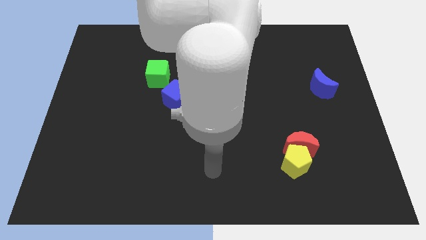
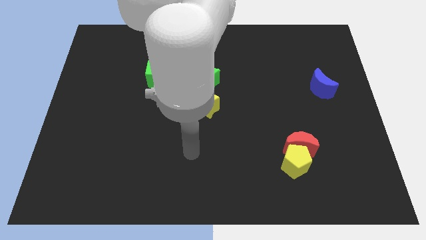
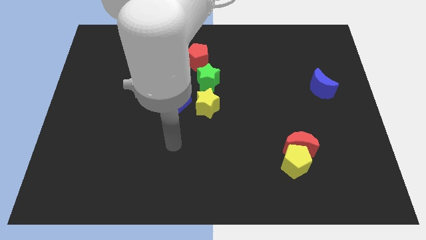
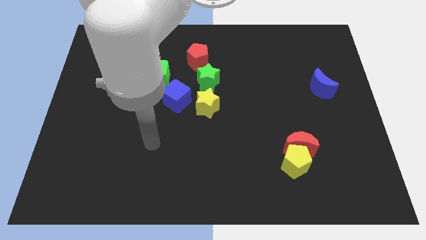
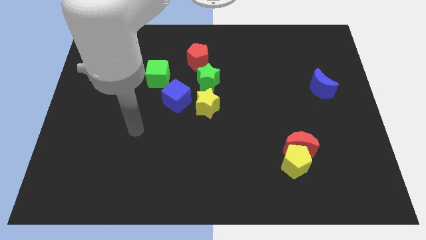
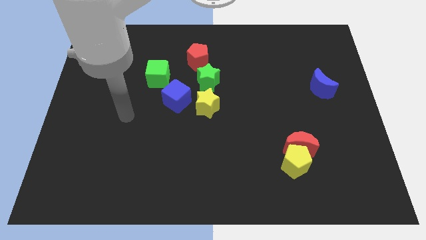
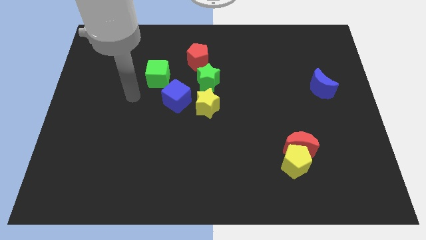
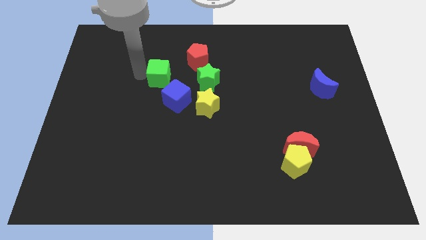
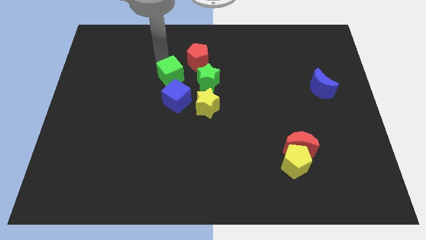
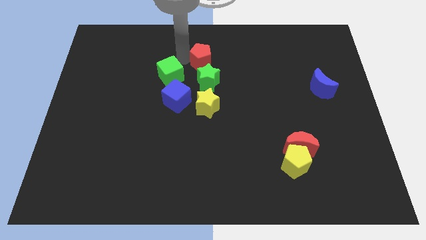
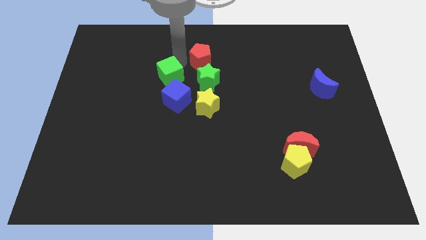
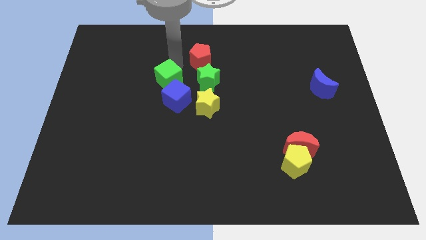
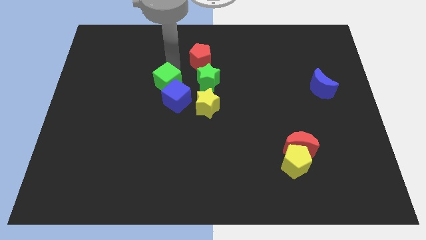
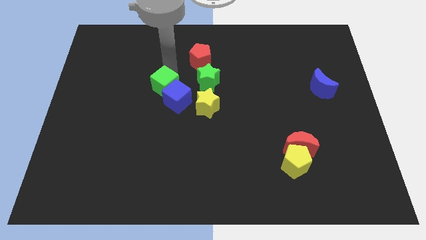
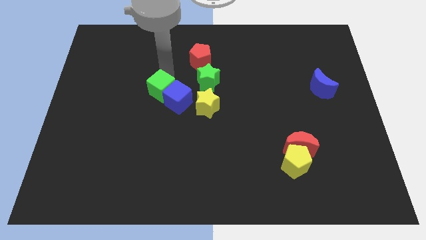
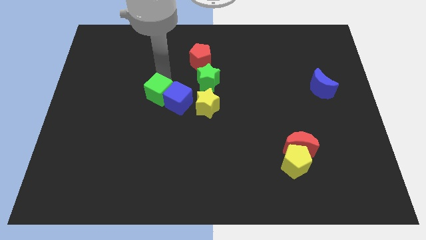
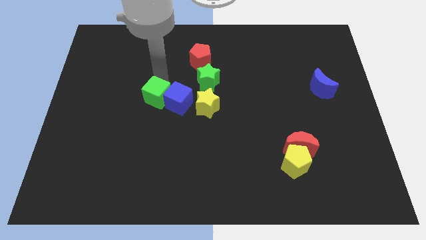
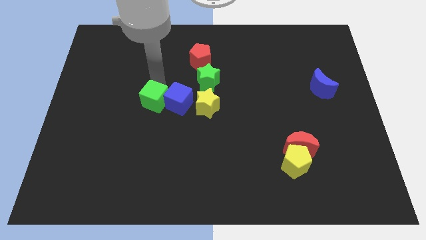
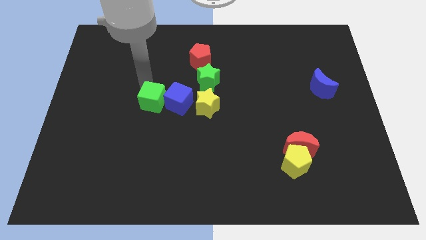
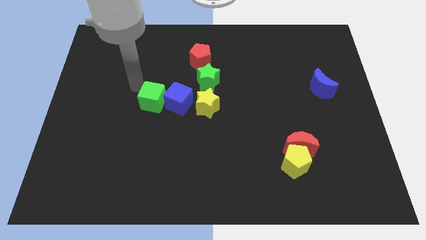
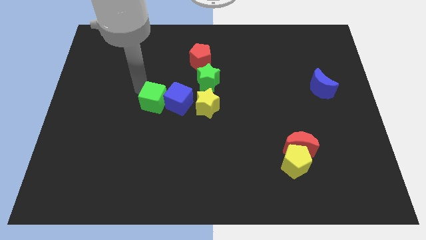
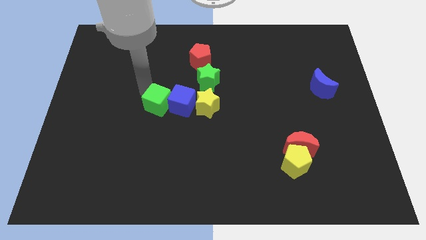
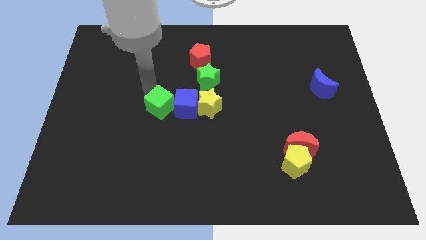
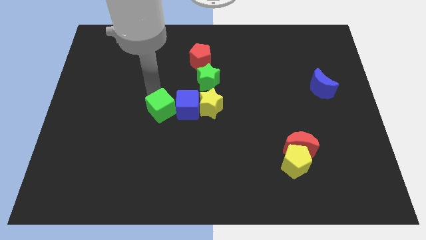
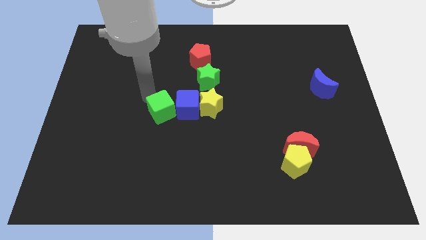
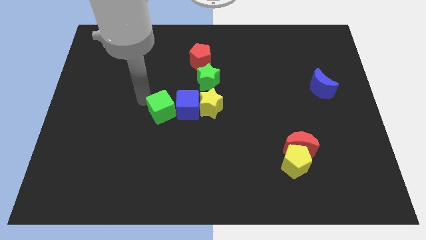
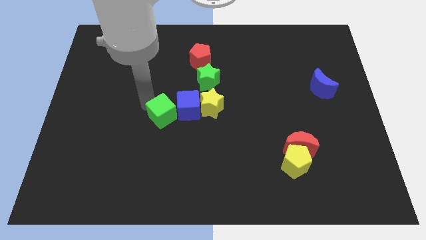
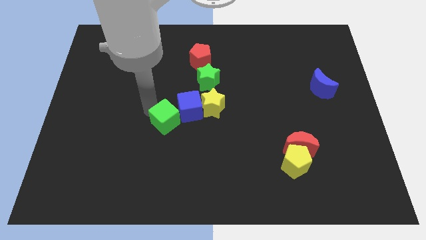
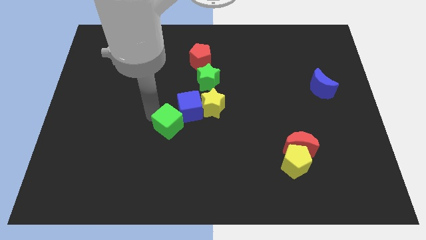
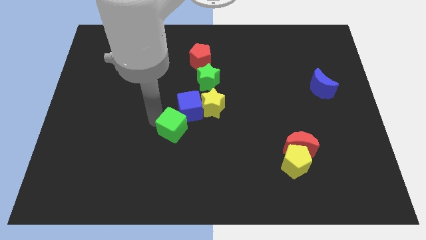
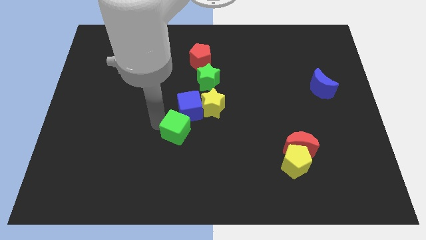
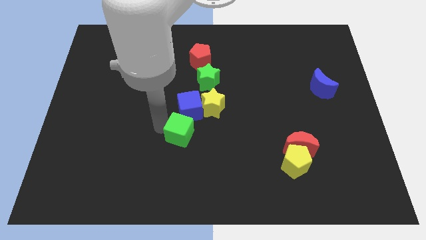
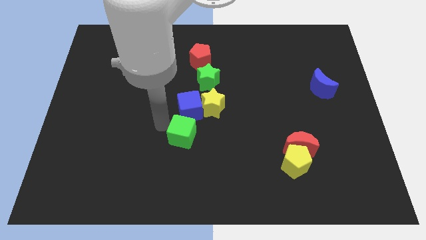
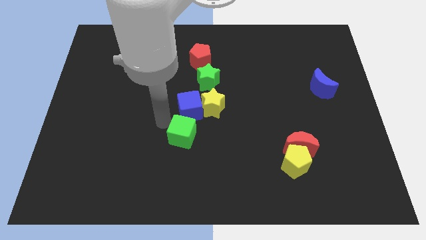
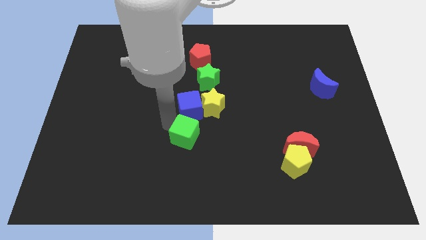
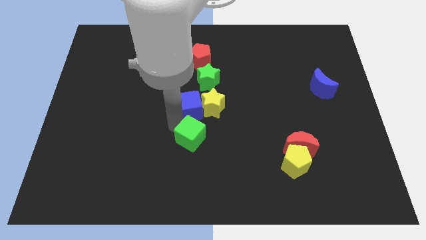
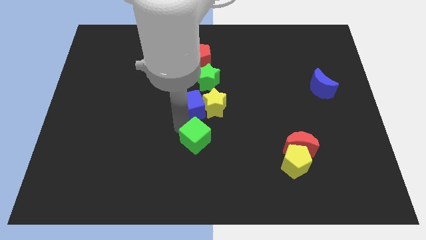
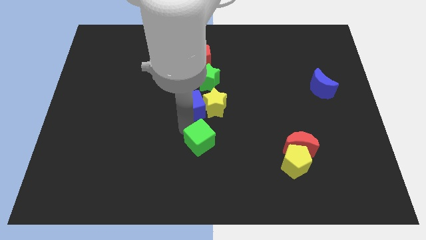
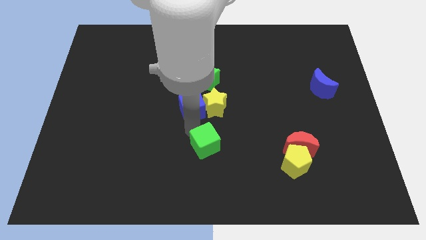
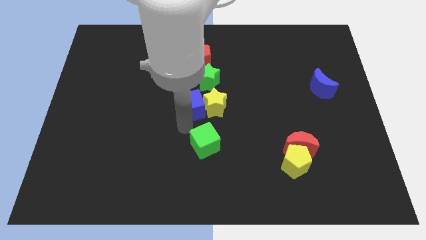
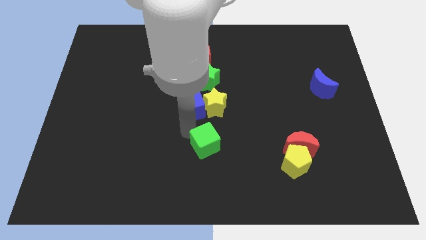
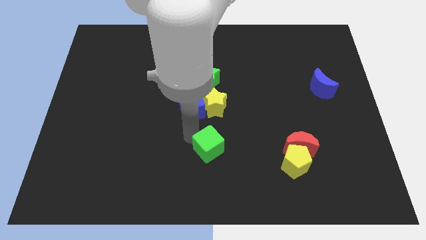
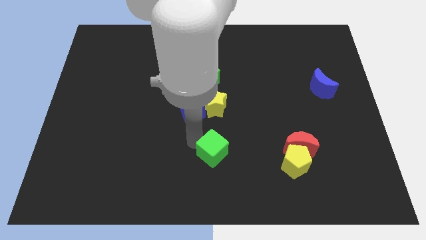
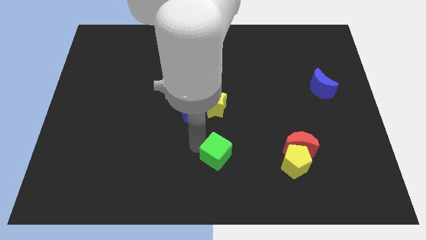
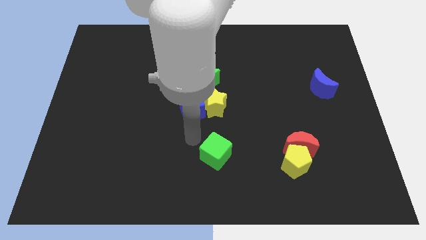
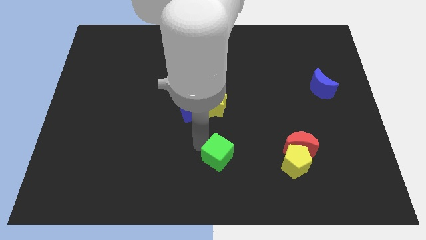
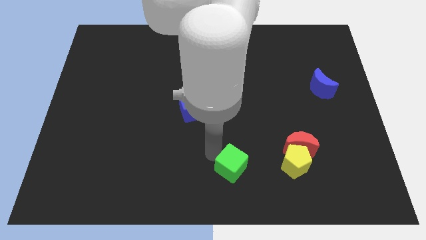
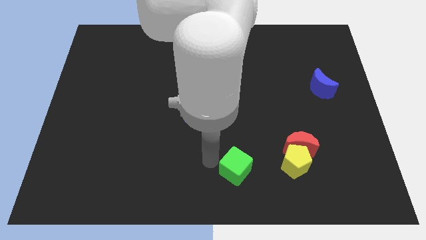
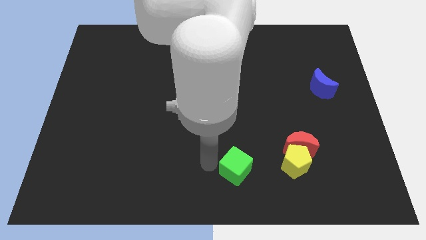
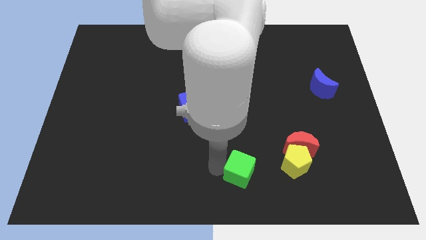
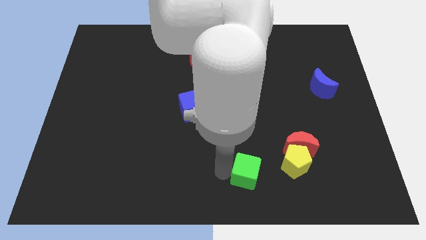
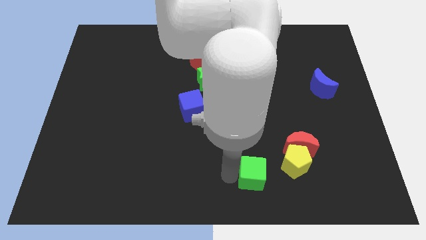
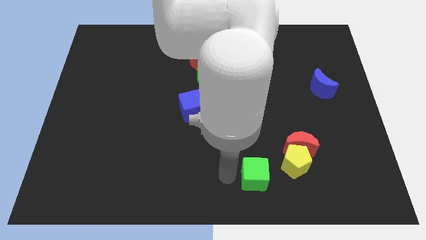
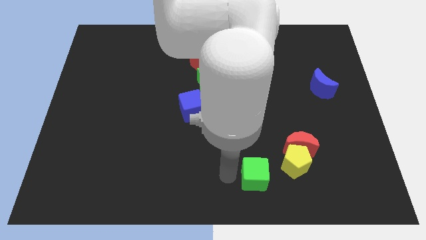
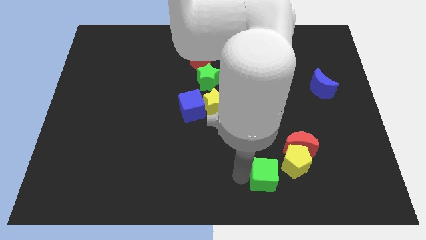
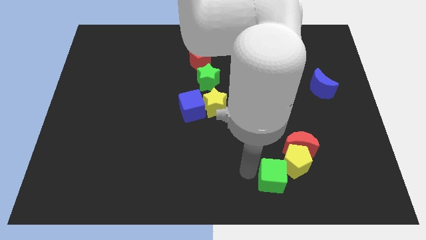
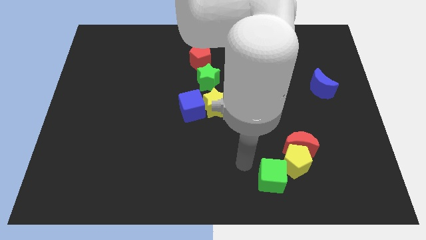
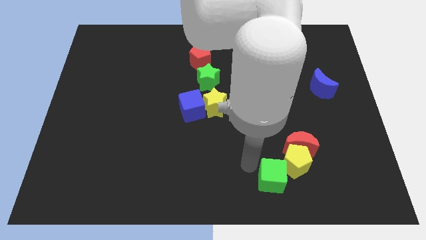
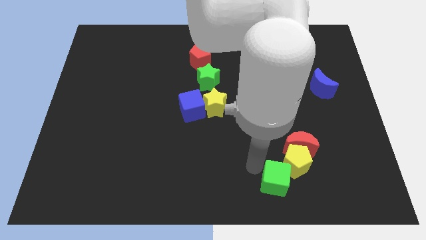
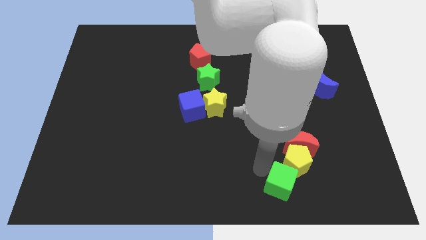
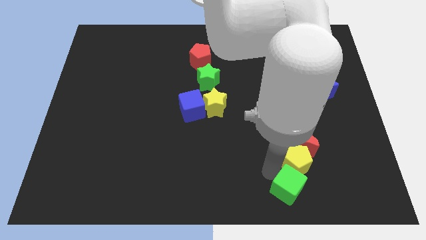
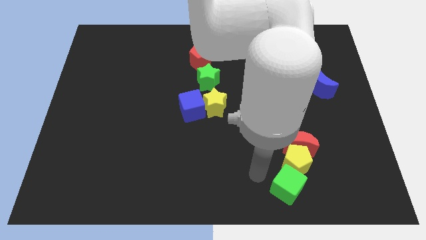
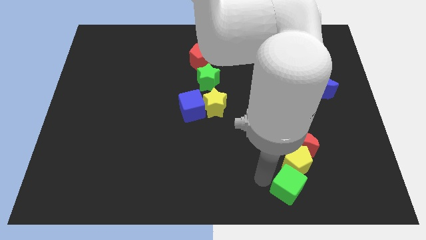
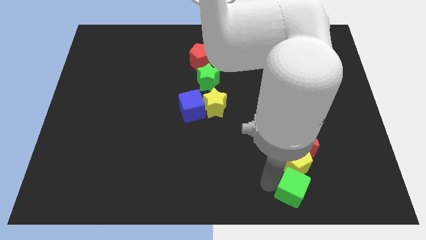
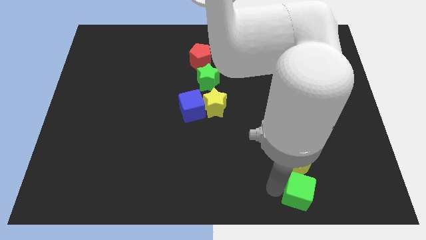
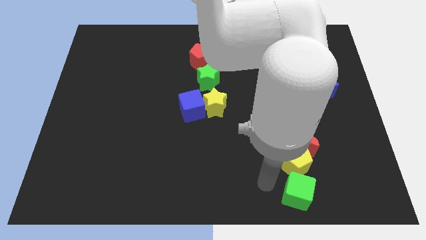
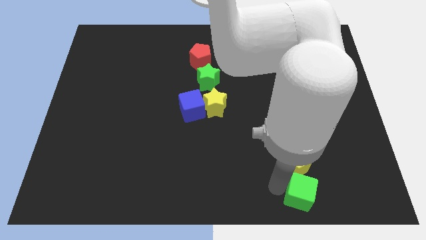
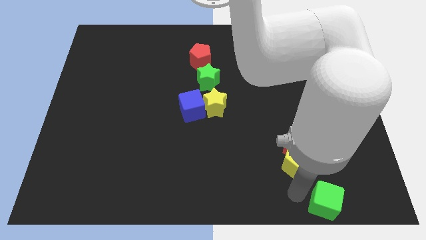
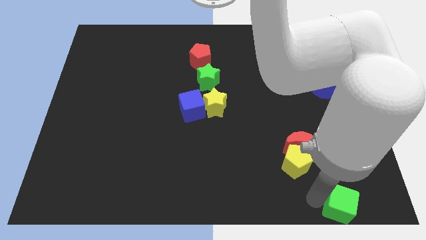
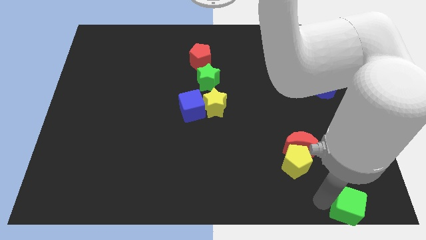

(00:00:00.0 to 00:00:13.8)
move the green cube to the lower right corner
